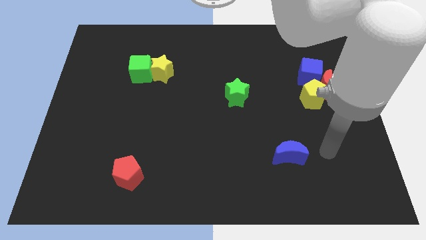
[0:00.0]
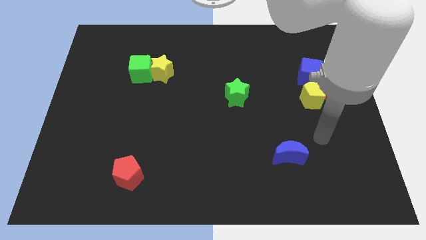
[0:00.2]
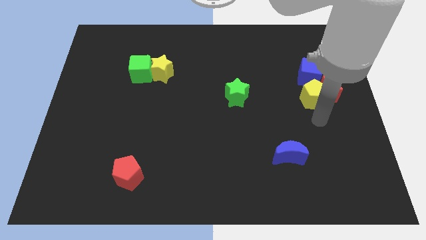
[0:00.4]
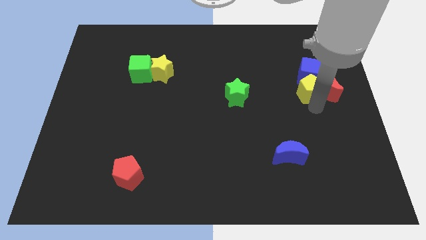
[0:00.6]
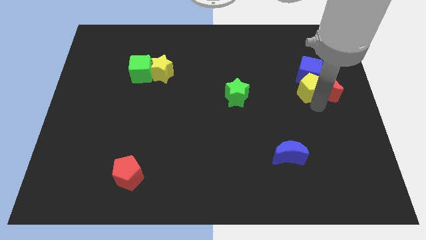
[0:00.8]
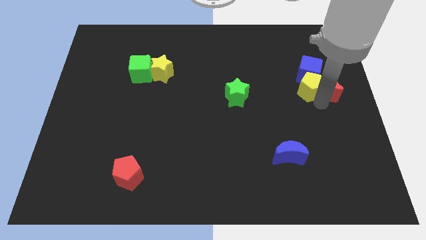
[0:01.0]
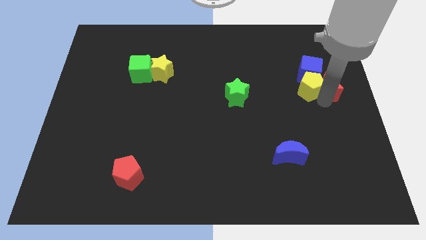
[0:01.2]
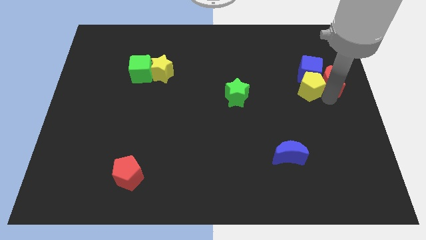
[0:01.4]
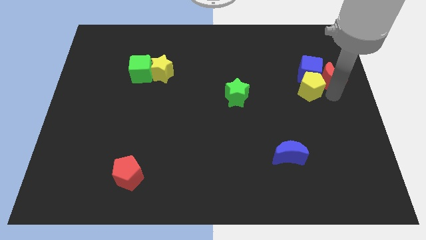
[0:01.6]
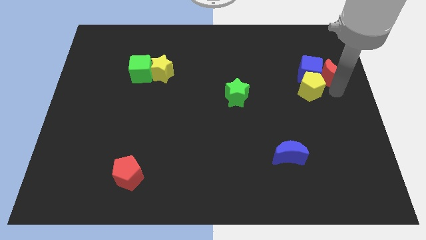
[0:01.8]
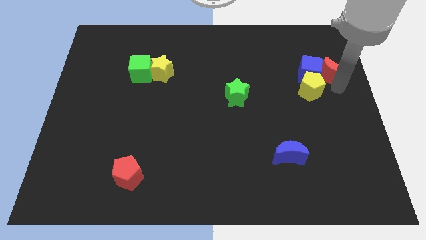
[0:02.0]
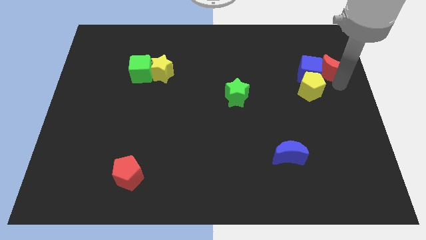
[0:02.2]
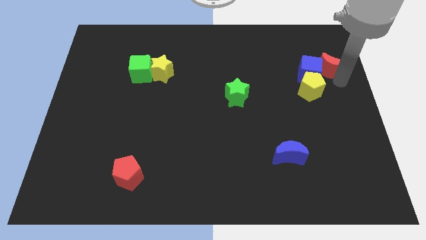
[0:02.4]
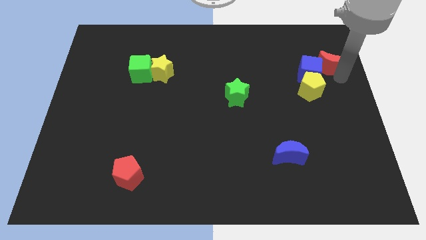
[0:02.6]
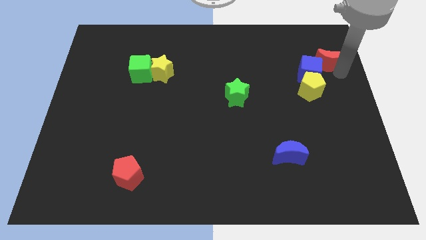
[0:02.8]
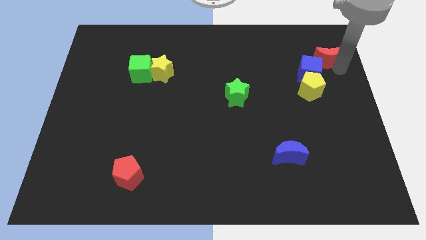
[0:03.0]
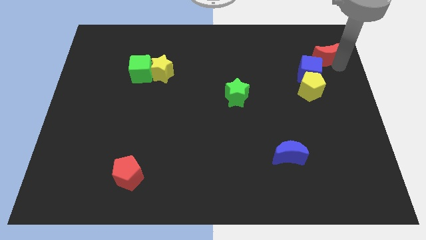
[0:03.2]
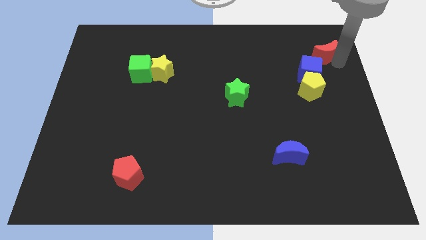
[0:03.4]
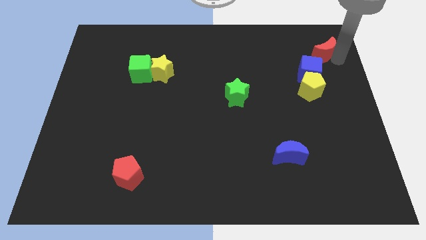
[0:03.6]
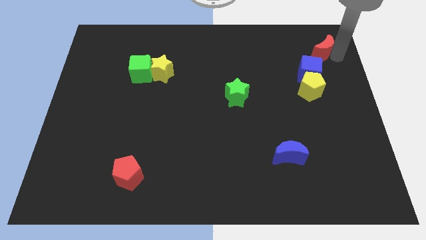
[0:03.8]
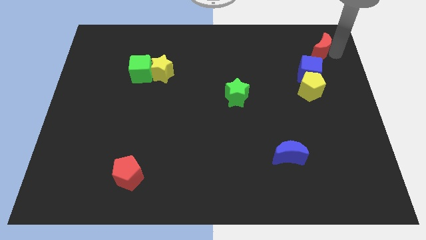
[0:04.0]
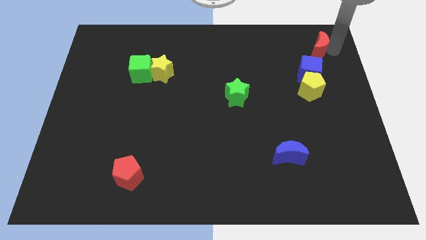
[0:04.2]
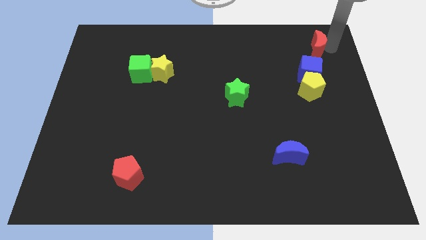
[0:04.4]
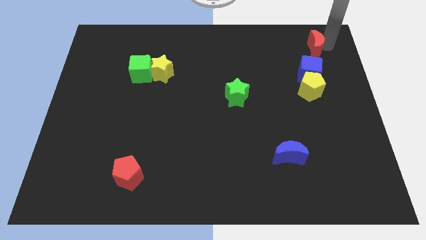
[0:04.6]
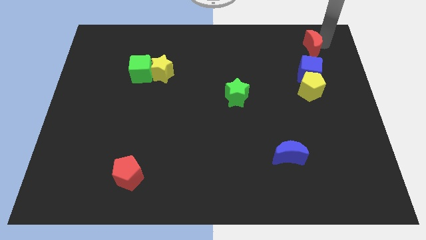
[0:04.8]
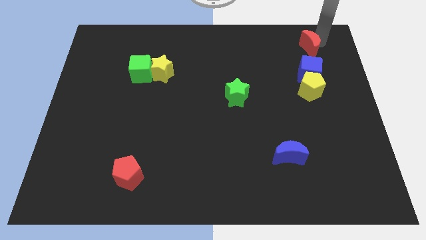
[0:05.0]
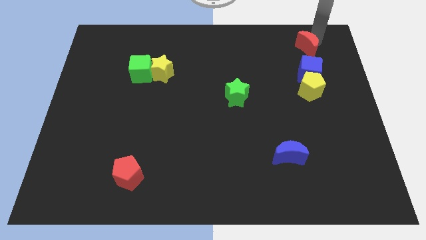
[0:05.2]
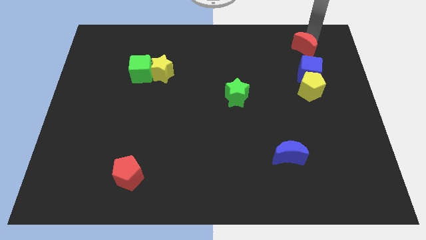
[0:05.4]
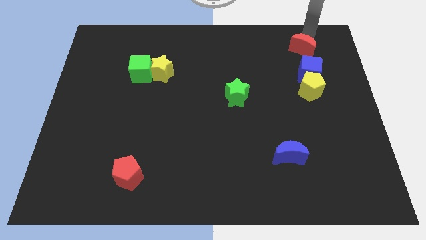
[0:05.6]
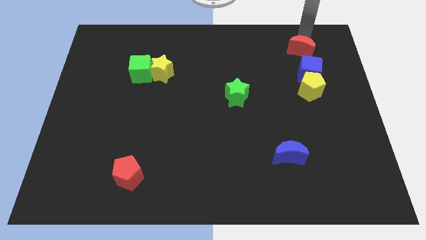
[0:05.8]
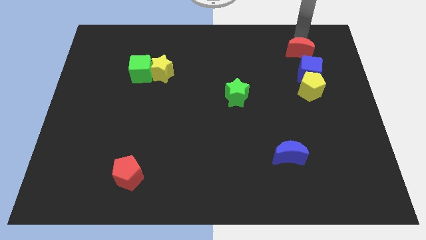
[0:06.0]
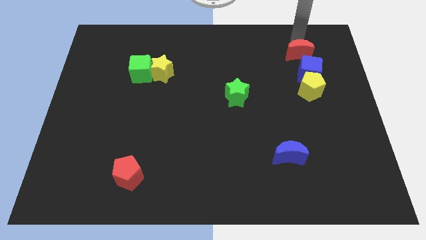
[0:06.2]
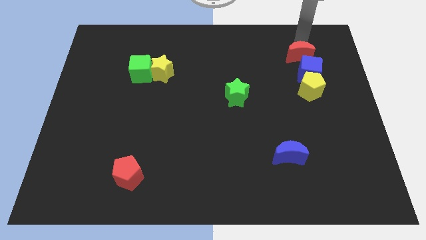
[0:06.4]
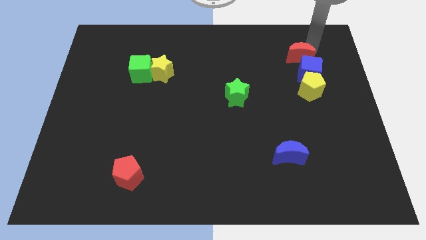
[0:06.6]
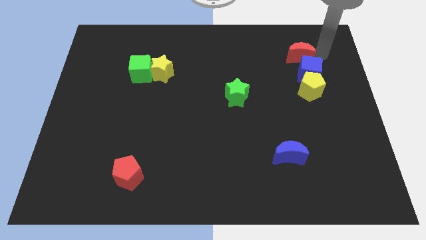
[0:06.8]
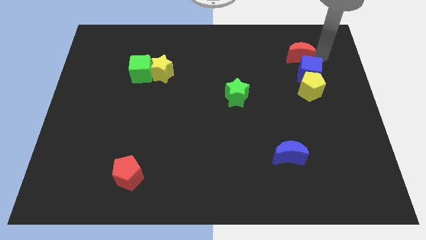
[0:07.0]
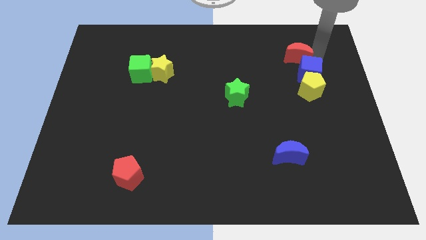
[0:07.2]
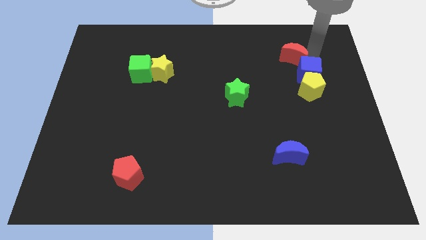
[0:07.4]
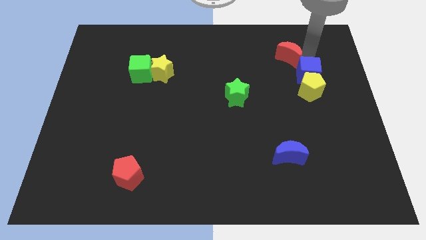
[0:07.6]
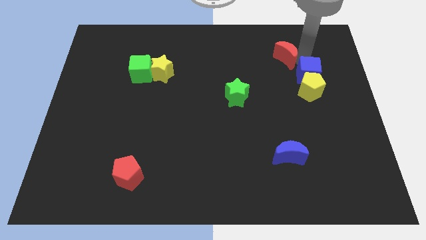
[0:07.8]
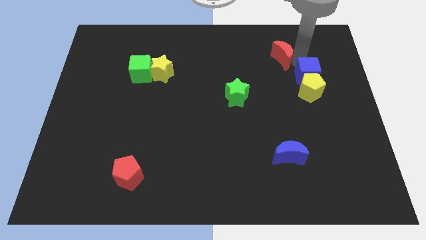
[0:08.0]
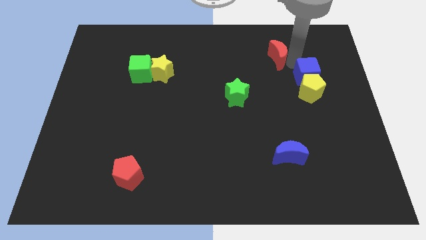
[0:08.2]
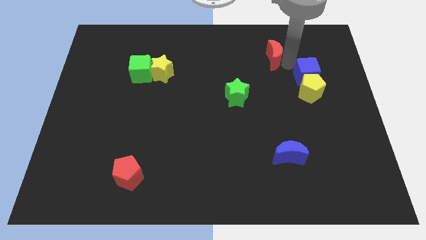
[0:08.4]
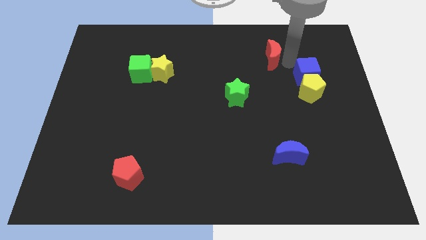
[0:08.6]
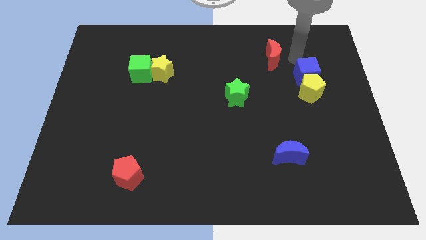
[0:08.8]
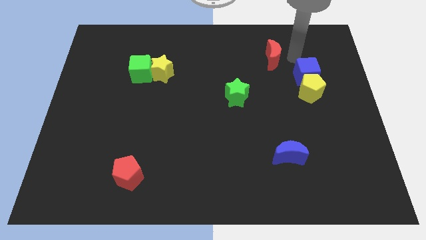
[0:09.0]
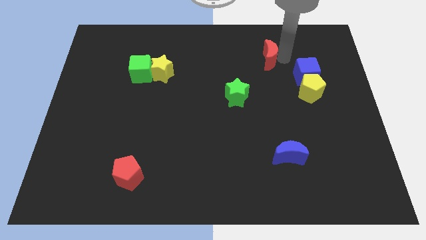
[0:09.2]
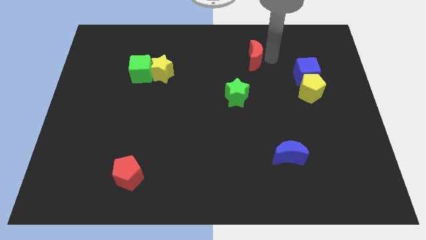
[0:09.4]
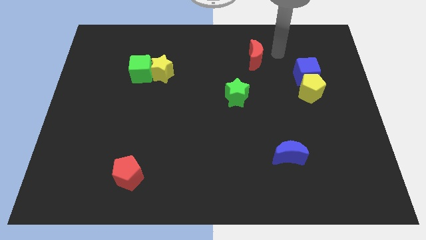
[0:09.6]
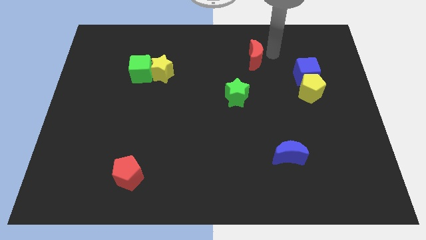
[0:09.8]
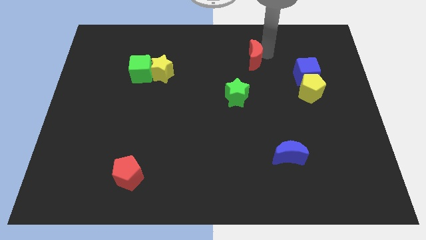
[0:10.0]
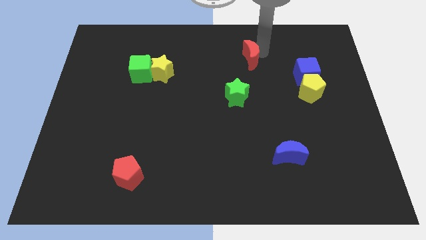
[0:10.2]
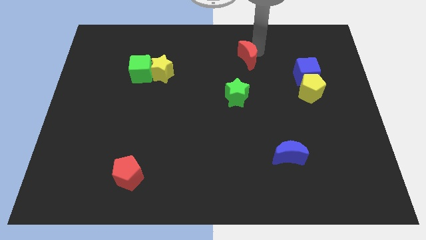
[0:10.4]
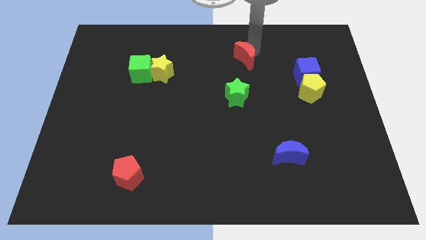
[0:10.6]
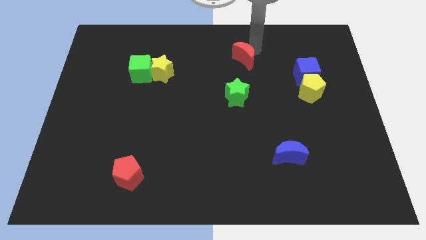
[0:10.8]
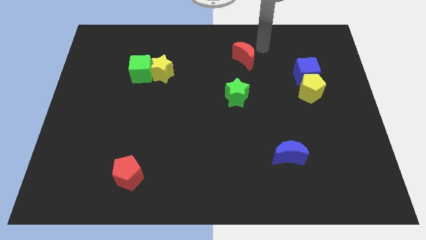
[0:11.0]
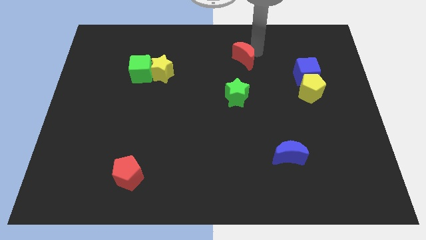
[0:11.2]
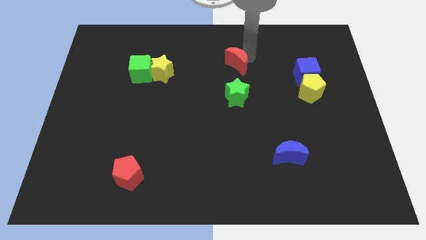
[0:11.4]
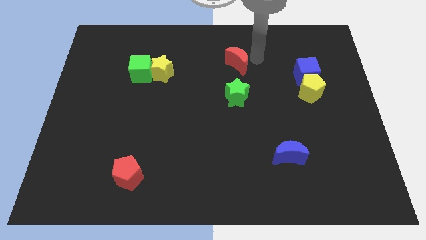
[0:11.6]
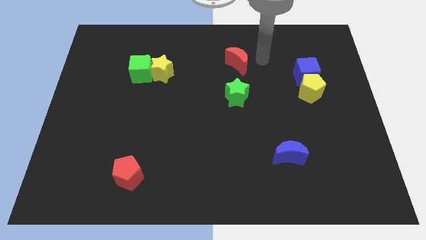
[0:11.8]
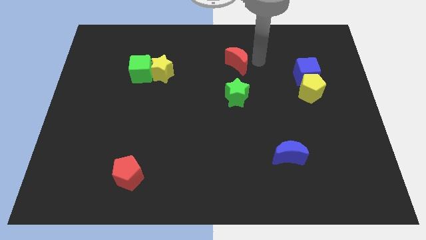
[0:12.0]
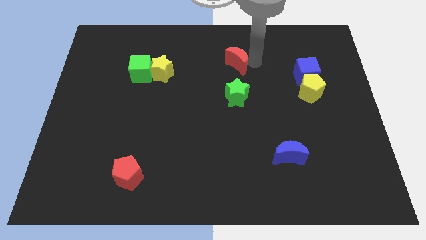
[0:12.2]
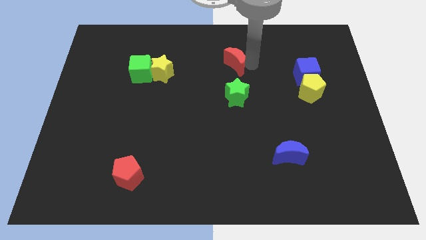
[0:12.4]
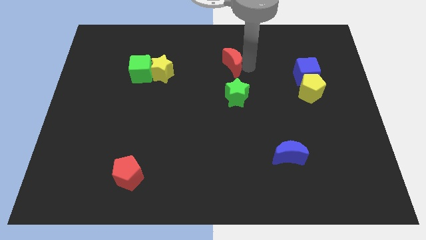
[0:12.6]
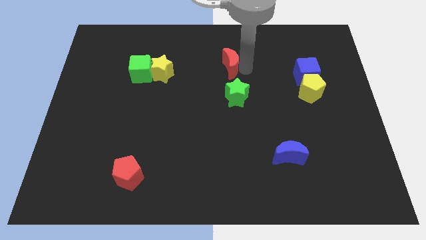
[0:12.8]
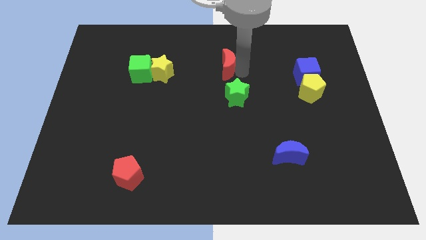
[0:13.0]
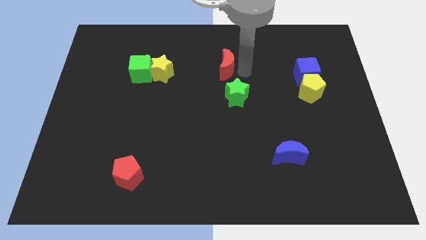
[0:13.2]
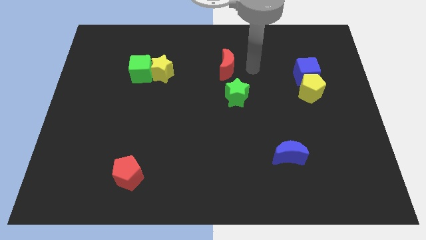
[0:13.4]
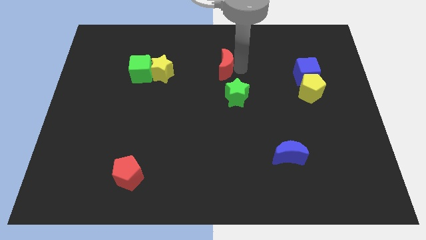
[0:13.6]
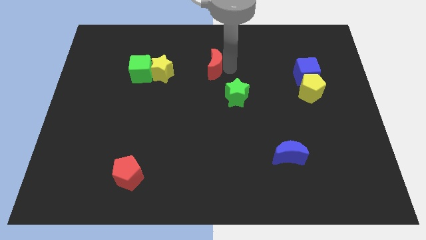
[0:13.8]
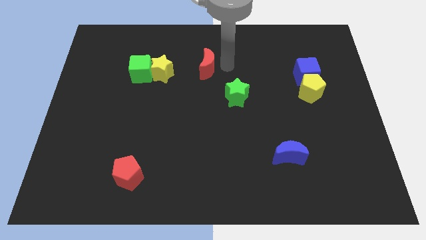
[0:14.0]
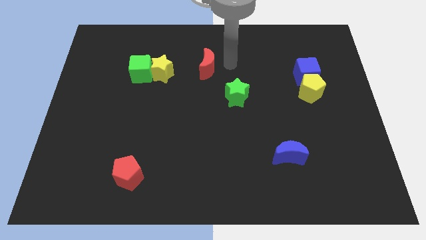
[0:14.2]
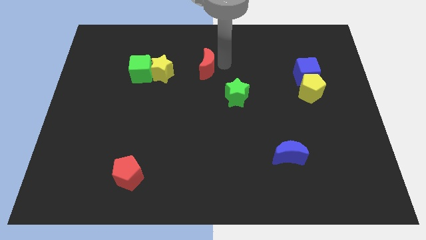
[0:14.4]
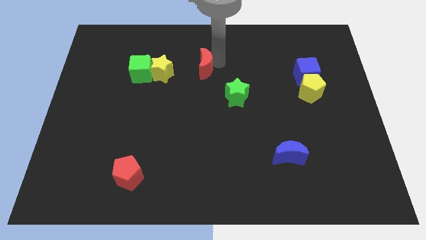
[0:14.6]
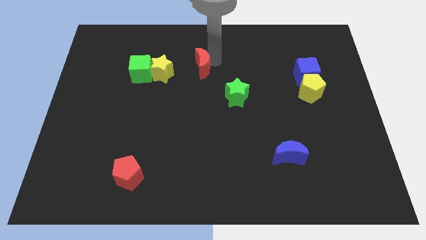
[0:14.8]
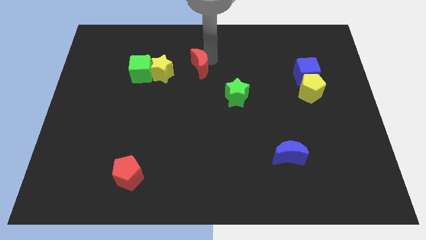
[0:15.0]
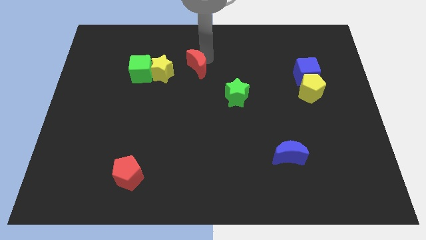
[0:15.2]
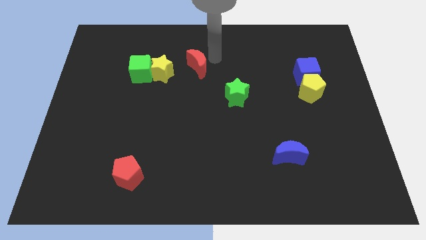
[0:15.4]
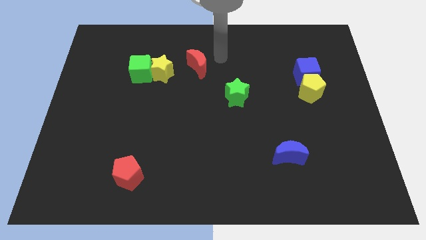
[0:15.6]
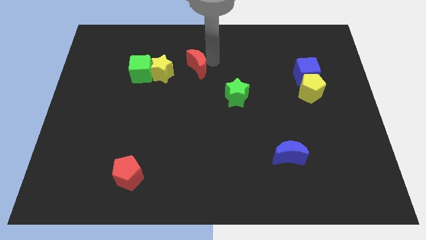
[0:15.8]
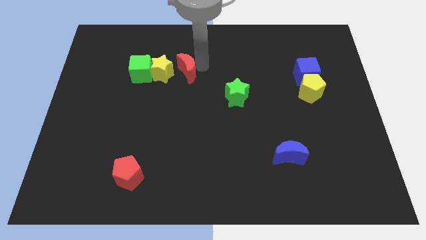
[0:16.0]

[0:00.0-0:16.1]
push the red moon to the yellow star
